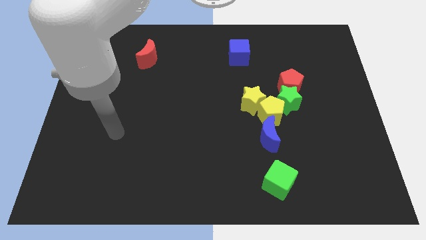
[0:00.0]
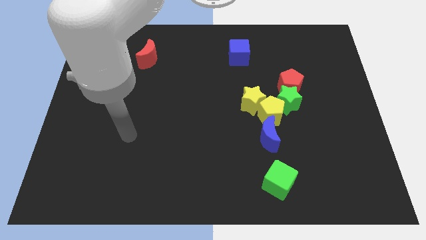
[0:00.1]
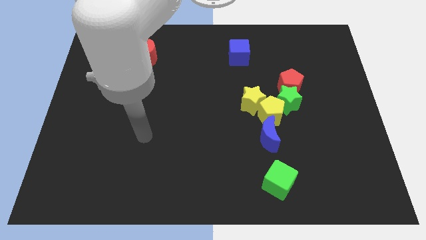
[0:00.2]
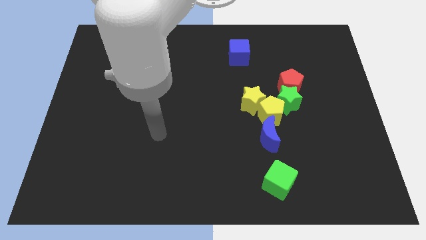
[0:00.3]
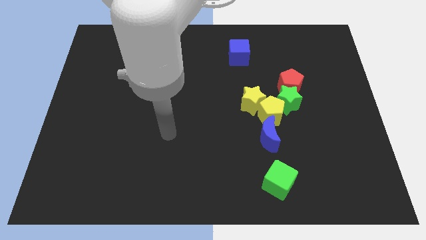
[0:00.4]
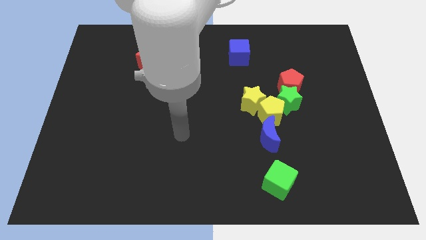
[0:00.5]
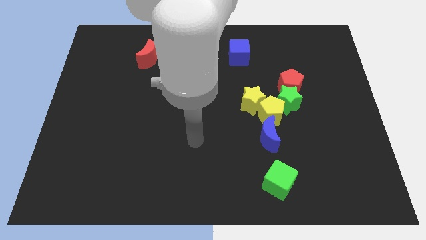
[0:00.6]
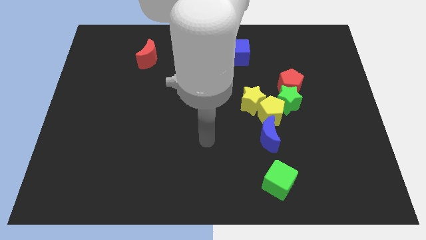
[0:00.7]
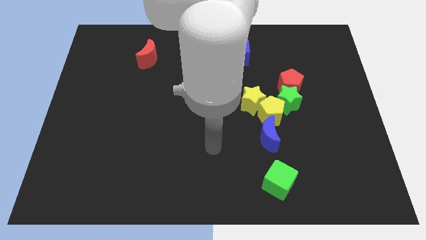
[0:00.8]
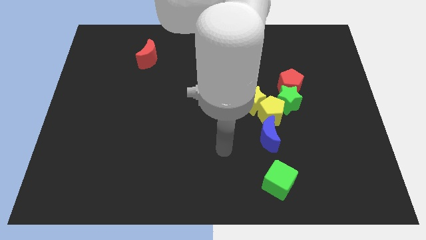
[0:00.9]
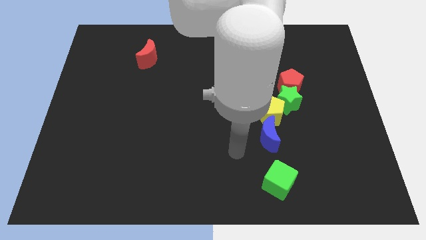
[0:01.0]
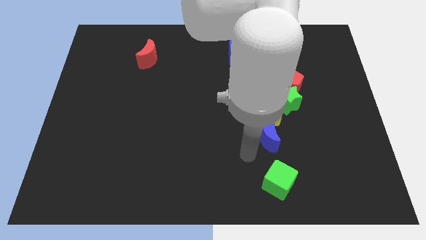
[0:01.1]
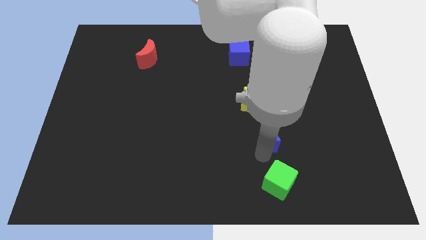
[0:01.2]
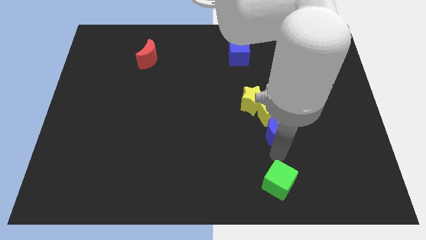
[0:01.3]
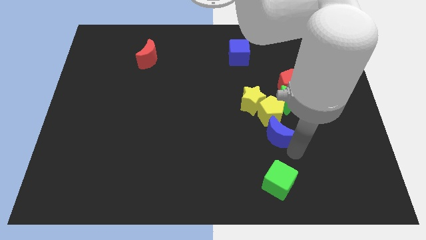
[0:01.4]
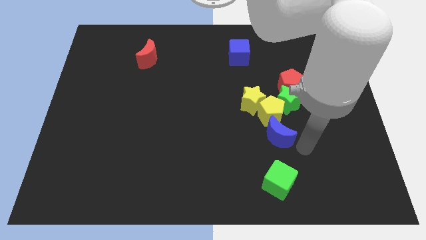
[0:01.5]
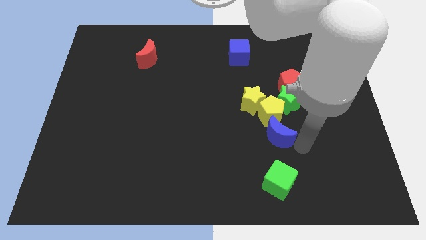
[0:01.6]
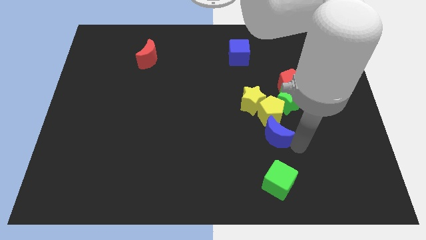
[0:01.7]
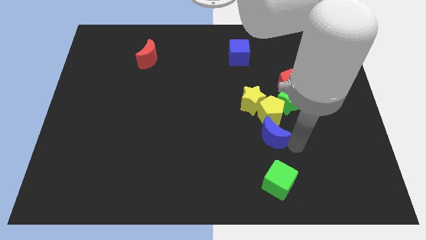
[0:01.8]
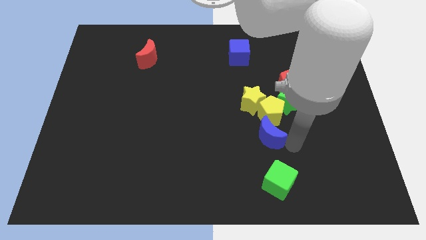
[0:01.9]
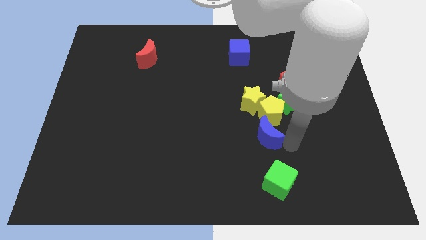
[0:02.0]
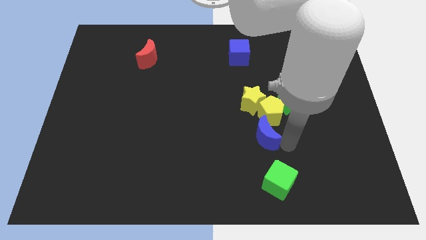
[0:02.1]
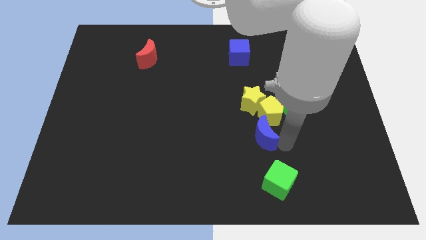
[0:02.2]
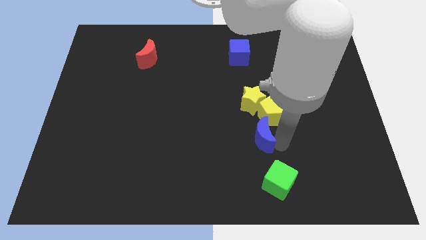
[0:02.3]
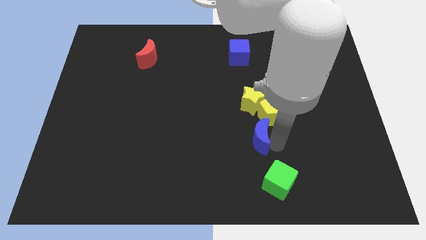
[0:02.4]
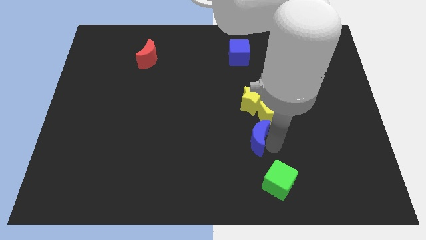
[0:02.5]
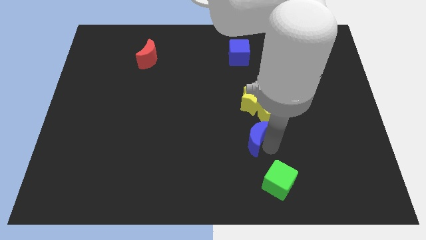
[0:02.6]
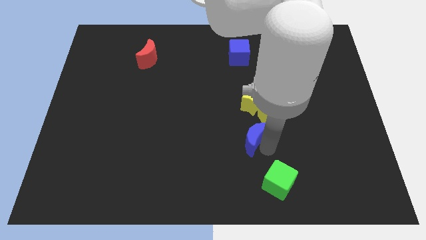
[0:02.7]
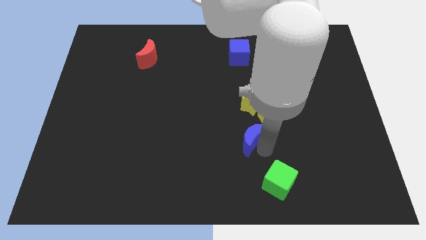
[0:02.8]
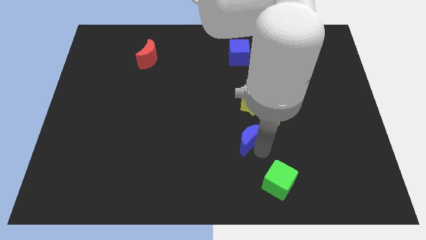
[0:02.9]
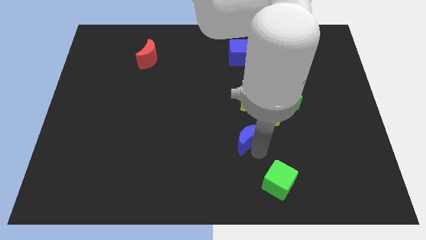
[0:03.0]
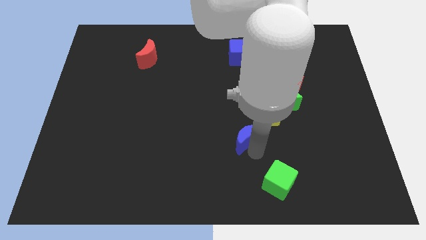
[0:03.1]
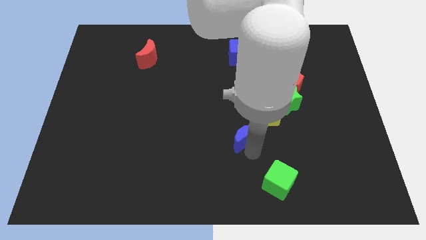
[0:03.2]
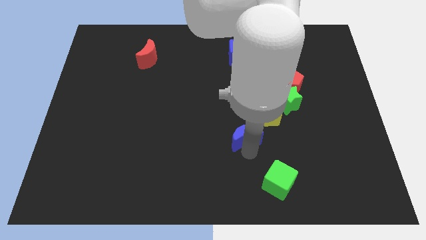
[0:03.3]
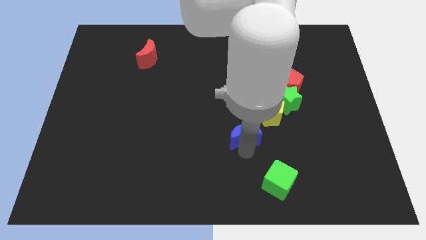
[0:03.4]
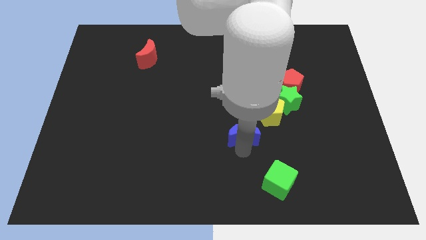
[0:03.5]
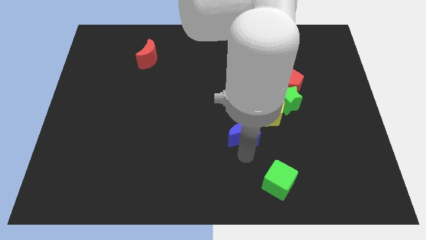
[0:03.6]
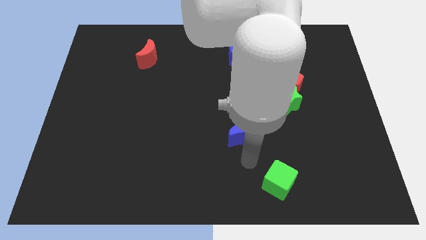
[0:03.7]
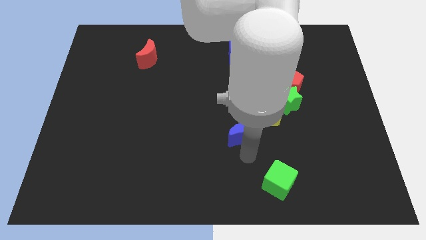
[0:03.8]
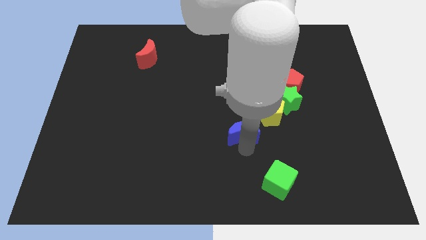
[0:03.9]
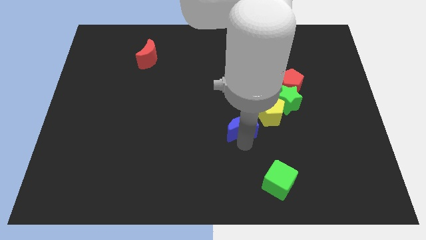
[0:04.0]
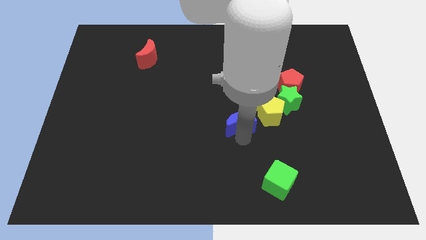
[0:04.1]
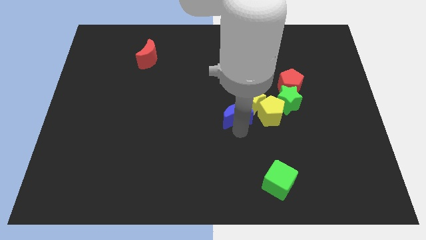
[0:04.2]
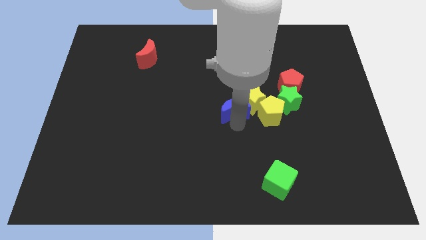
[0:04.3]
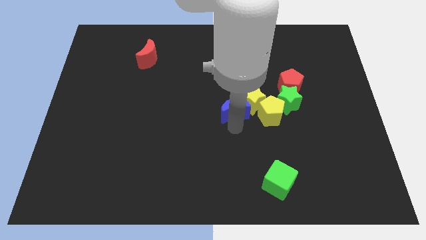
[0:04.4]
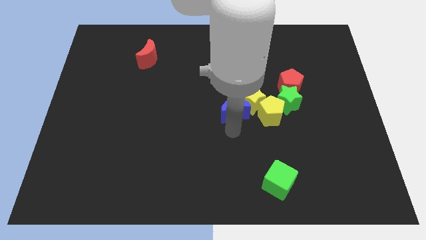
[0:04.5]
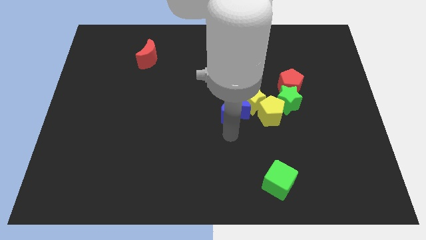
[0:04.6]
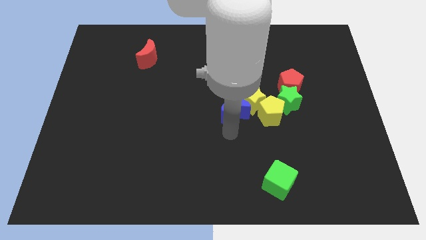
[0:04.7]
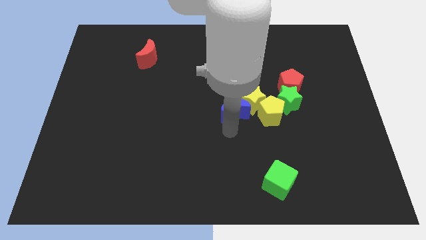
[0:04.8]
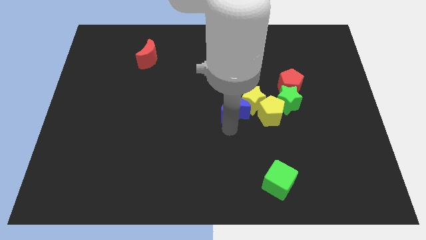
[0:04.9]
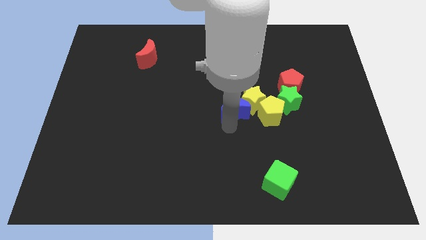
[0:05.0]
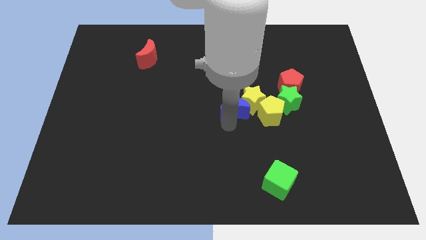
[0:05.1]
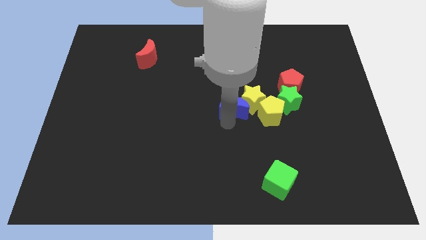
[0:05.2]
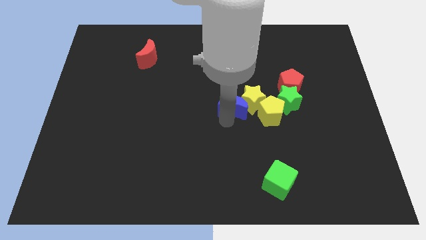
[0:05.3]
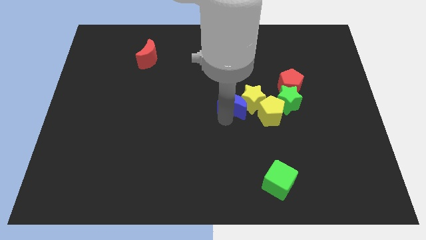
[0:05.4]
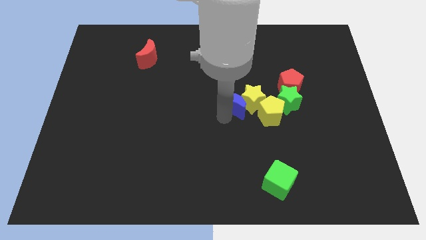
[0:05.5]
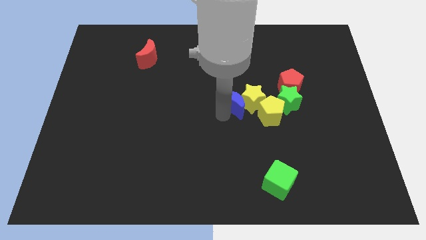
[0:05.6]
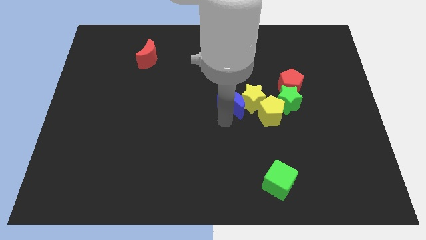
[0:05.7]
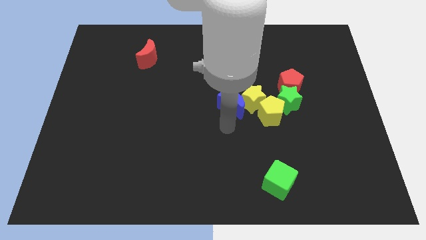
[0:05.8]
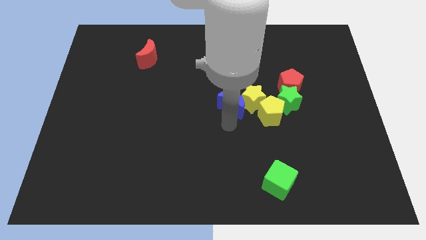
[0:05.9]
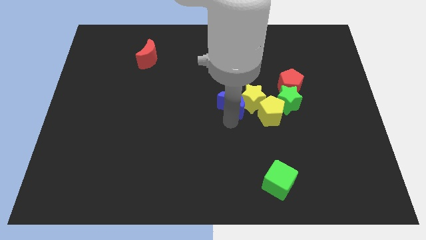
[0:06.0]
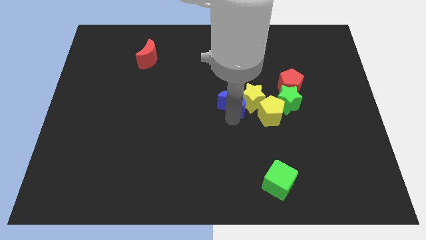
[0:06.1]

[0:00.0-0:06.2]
push the blue moon a bit up

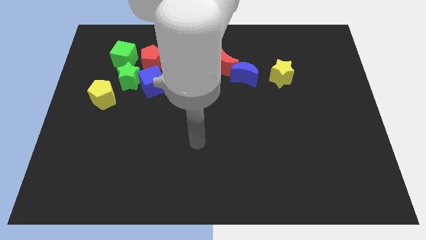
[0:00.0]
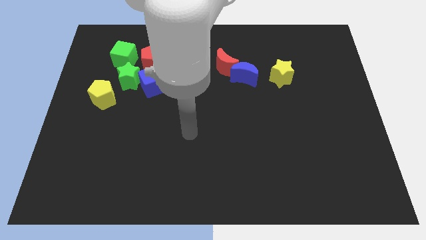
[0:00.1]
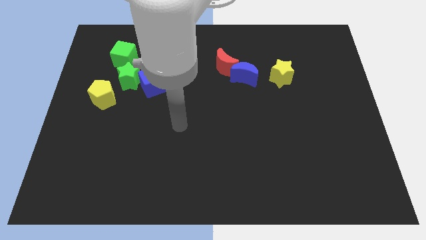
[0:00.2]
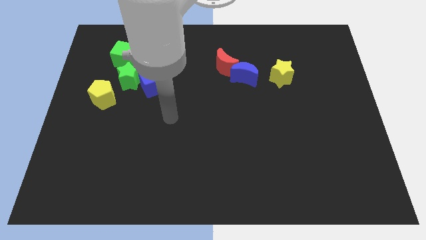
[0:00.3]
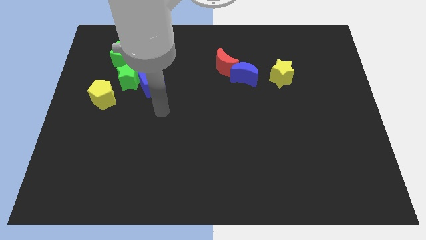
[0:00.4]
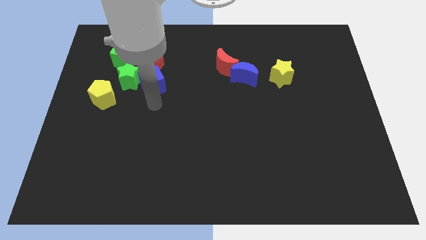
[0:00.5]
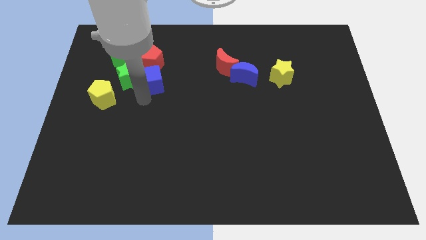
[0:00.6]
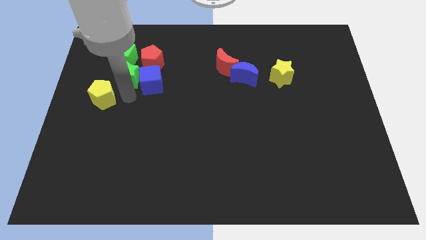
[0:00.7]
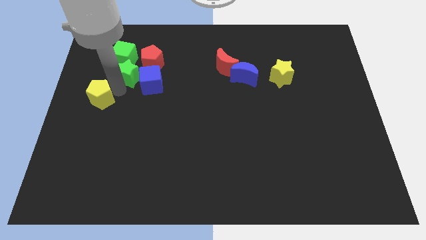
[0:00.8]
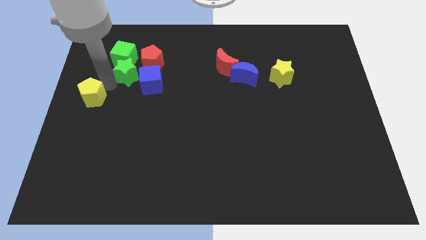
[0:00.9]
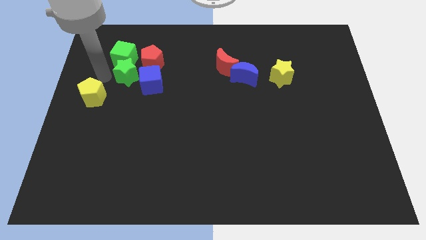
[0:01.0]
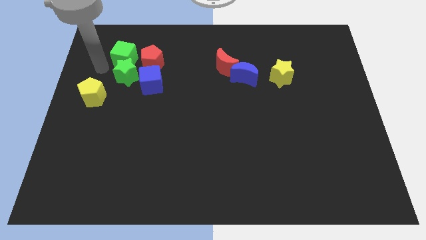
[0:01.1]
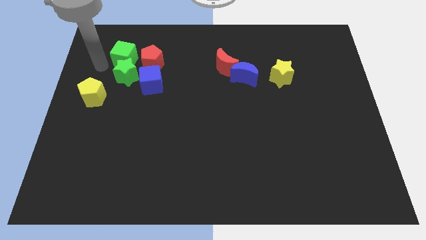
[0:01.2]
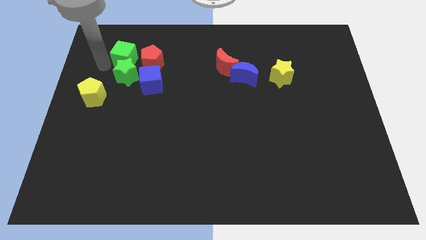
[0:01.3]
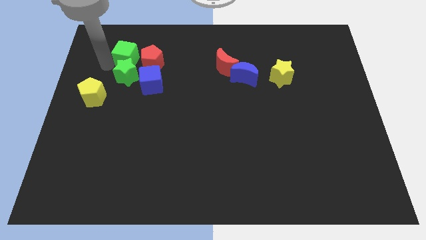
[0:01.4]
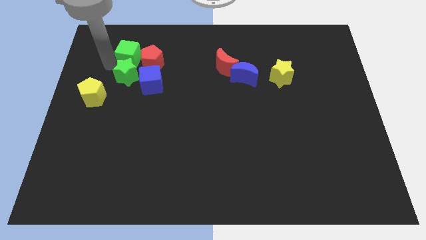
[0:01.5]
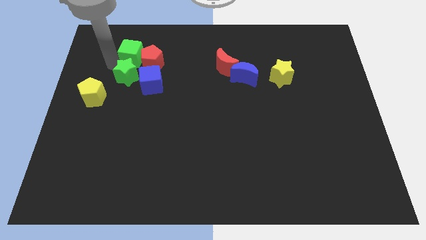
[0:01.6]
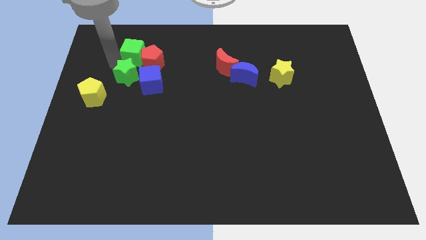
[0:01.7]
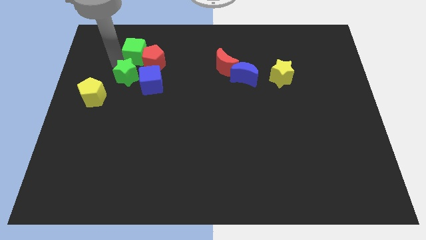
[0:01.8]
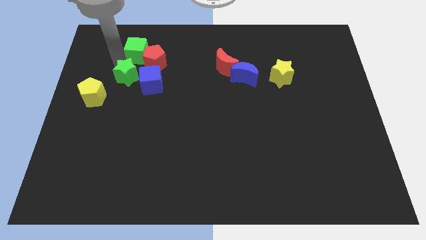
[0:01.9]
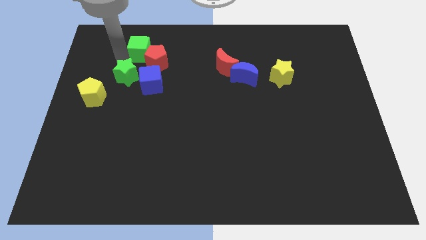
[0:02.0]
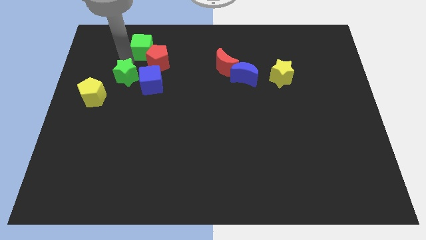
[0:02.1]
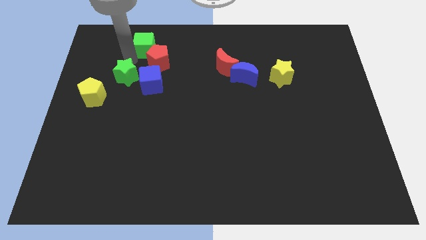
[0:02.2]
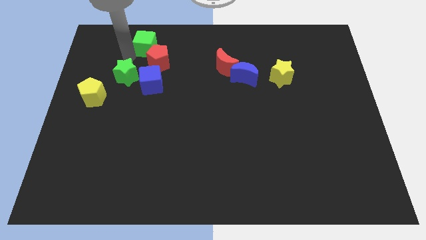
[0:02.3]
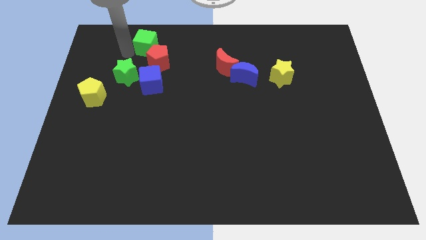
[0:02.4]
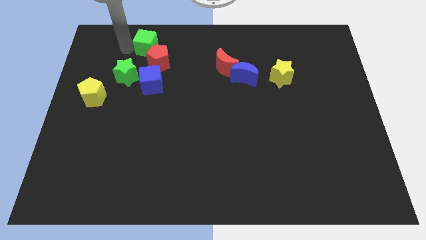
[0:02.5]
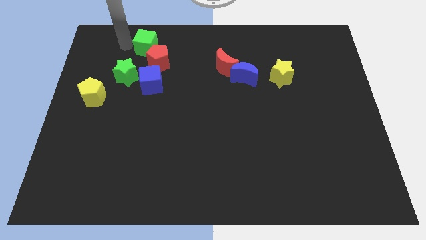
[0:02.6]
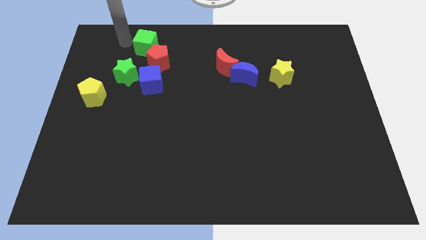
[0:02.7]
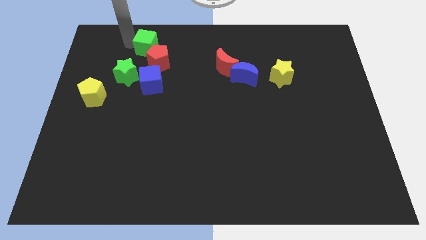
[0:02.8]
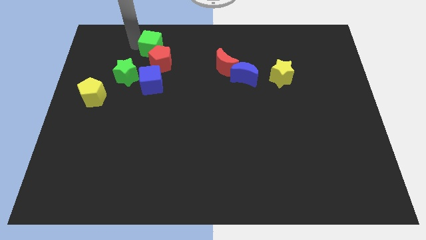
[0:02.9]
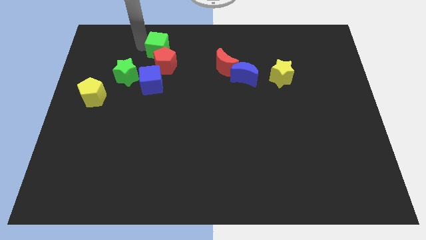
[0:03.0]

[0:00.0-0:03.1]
slide the green cube to the right slightly
